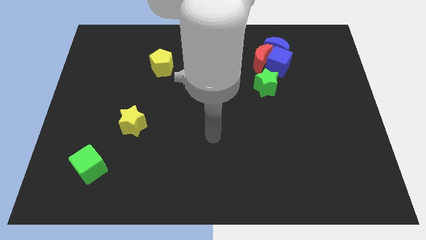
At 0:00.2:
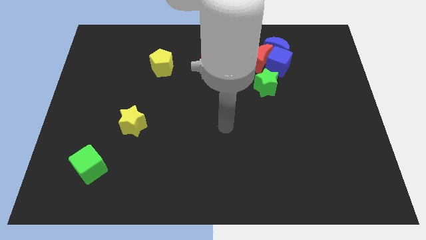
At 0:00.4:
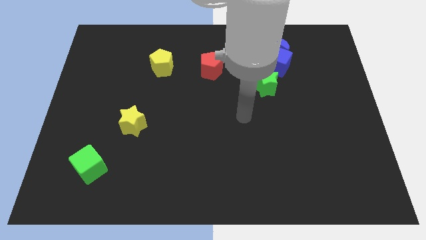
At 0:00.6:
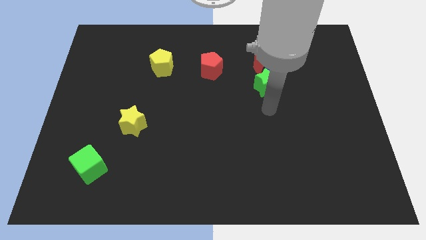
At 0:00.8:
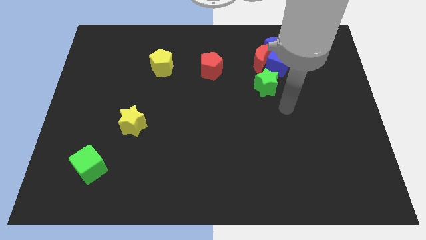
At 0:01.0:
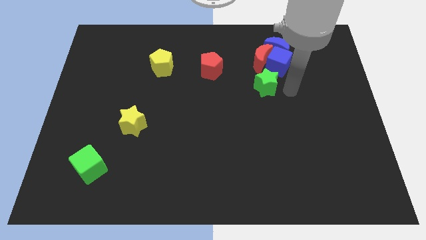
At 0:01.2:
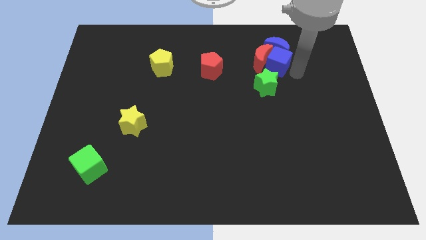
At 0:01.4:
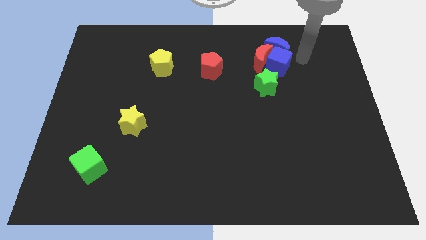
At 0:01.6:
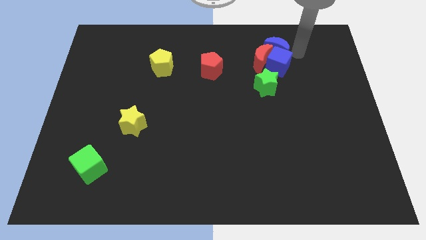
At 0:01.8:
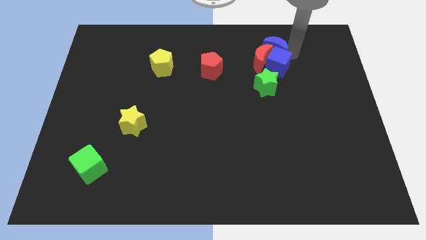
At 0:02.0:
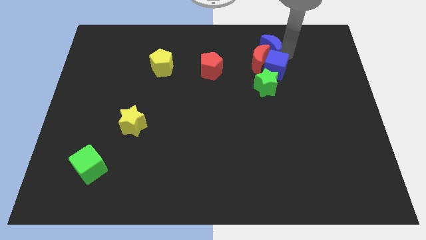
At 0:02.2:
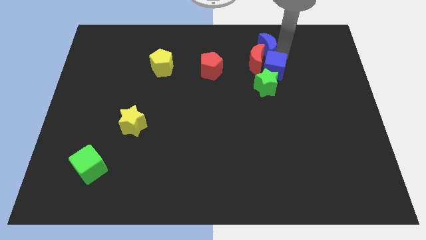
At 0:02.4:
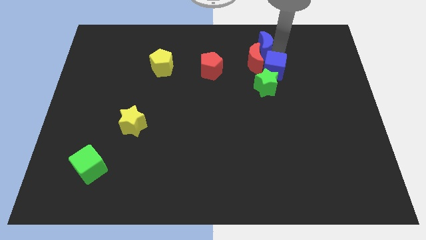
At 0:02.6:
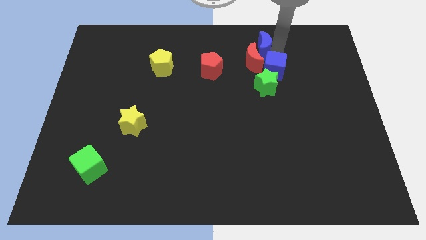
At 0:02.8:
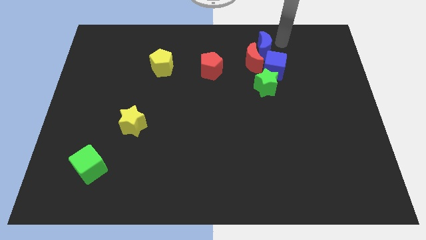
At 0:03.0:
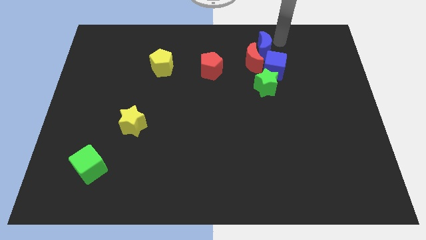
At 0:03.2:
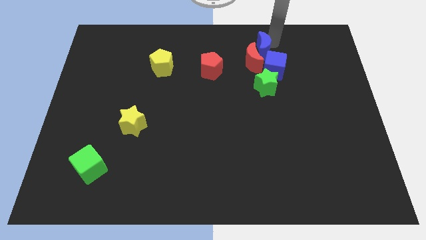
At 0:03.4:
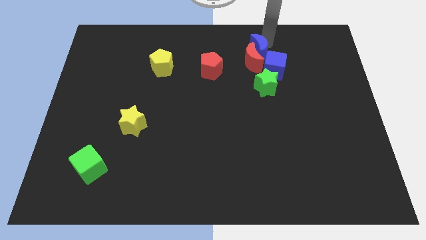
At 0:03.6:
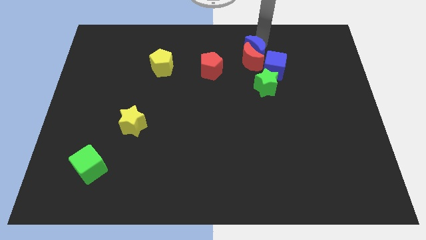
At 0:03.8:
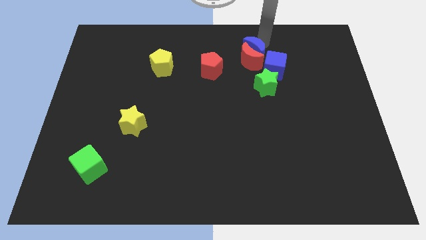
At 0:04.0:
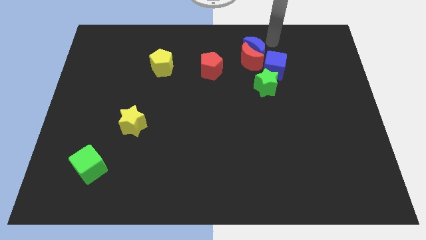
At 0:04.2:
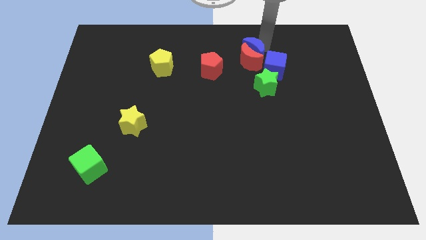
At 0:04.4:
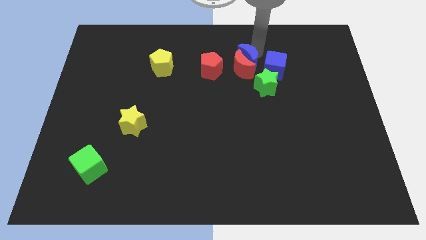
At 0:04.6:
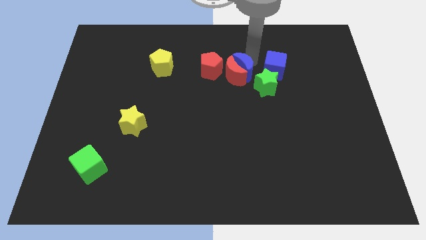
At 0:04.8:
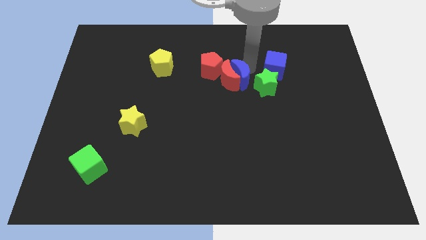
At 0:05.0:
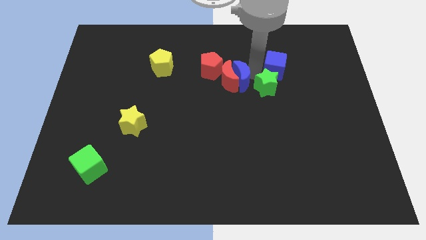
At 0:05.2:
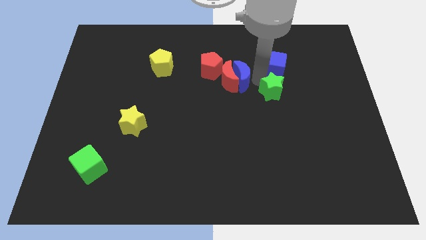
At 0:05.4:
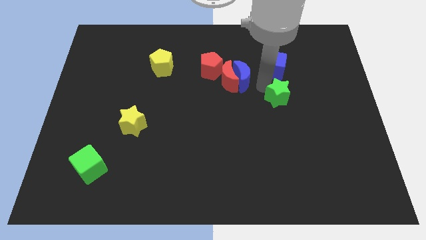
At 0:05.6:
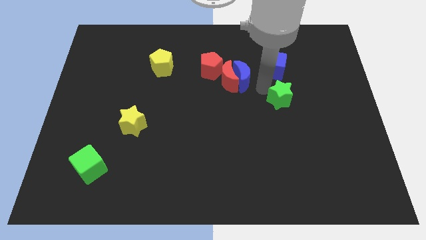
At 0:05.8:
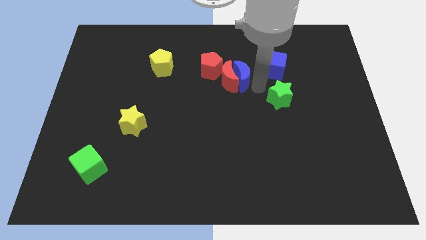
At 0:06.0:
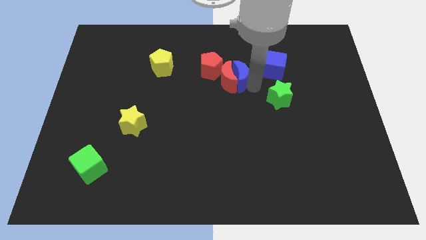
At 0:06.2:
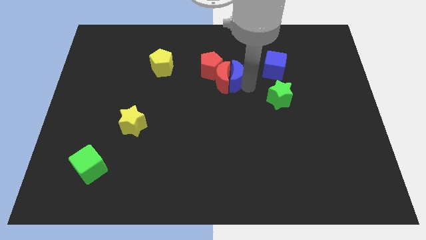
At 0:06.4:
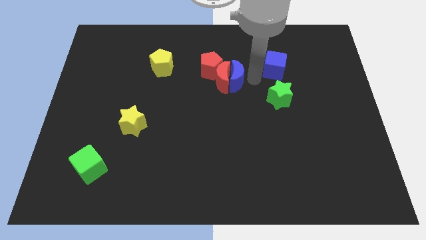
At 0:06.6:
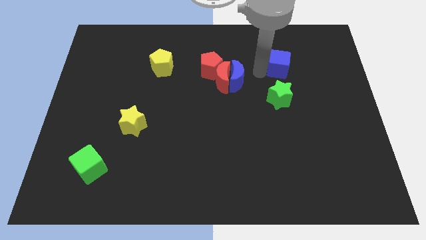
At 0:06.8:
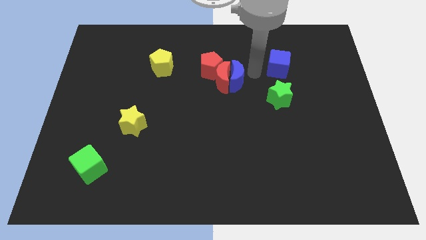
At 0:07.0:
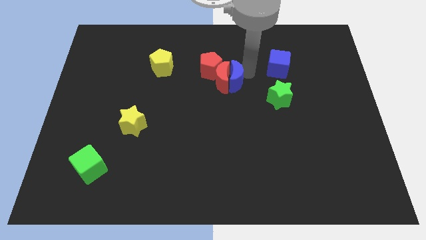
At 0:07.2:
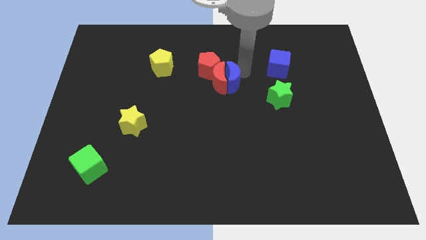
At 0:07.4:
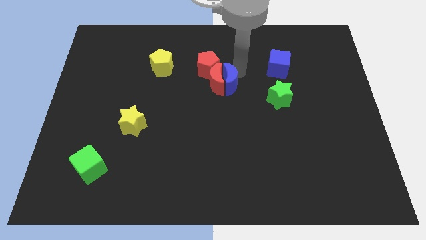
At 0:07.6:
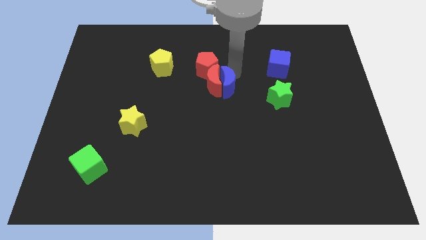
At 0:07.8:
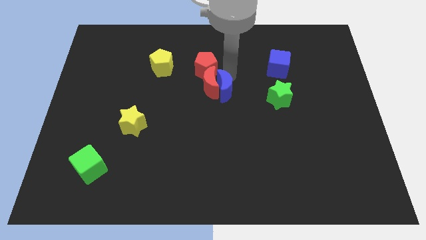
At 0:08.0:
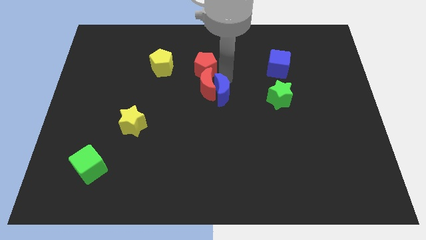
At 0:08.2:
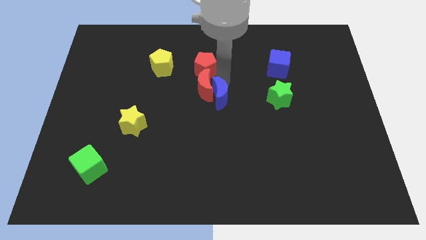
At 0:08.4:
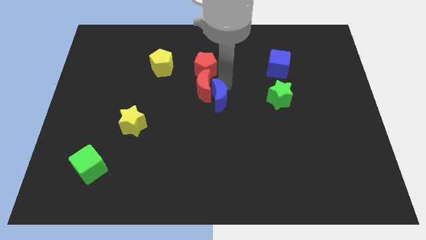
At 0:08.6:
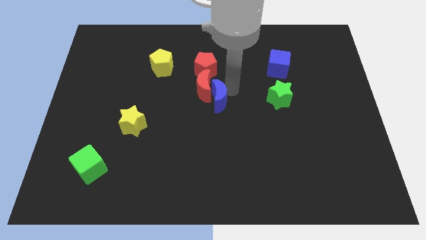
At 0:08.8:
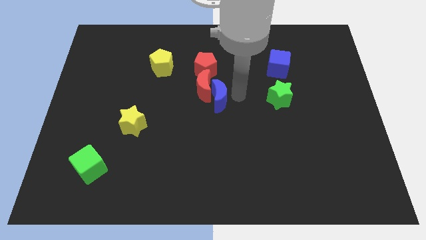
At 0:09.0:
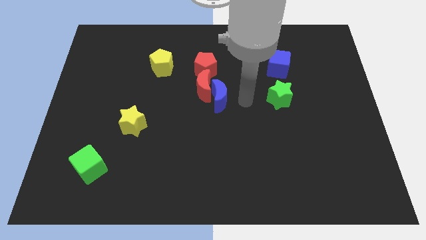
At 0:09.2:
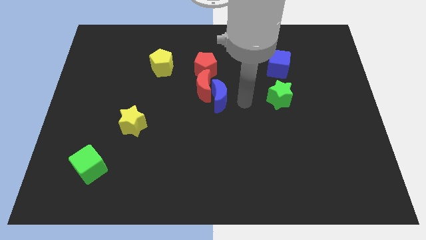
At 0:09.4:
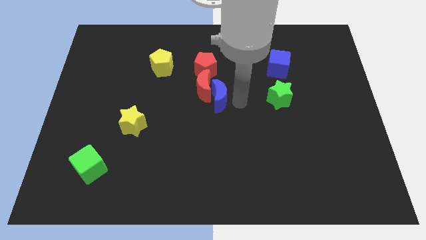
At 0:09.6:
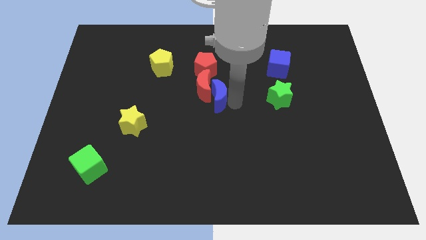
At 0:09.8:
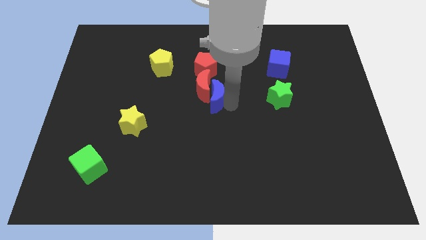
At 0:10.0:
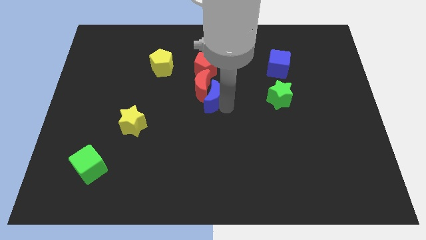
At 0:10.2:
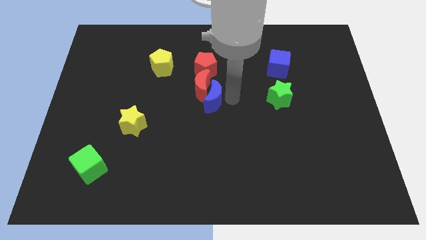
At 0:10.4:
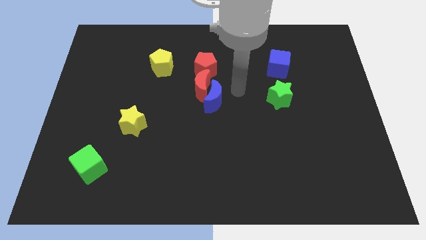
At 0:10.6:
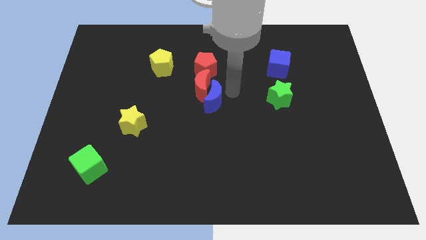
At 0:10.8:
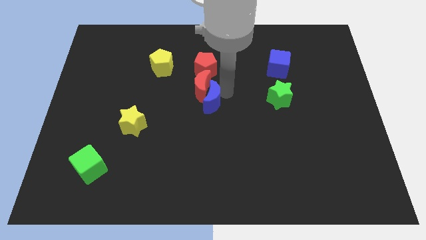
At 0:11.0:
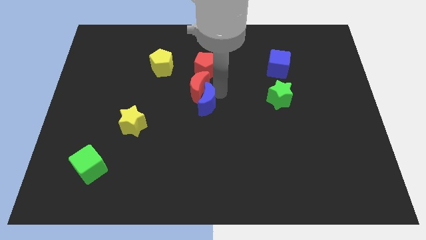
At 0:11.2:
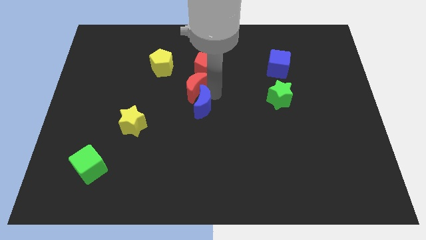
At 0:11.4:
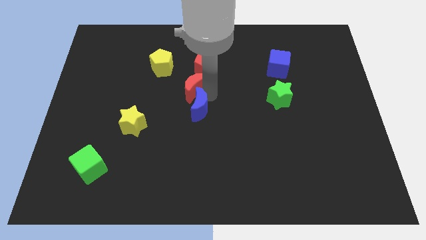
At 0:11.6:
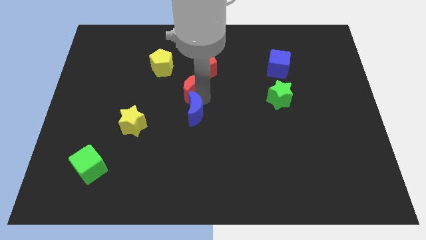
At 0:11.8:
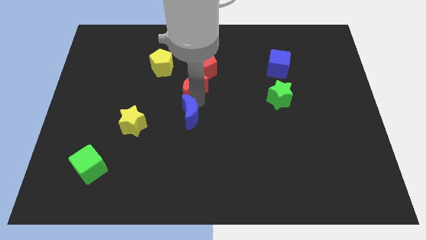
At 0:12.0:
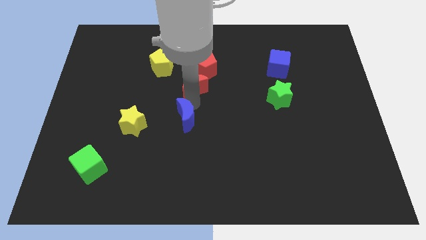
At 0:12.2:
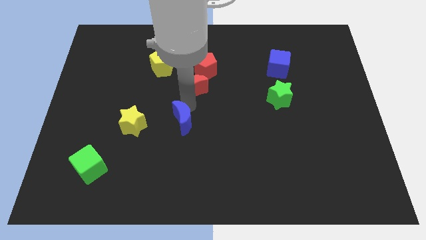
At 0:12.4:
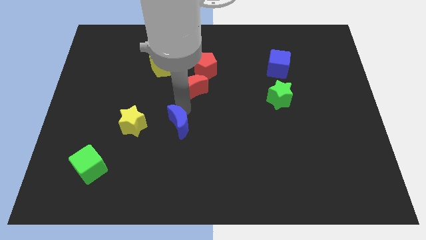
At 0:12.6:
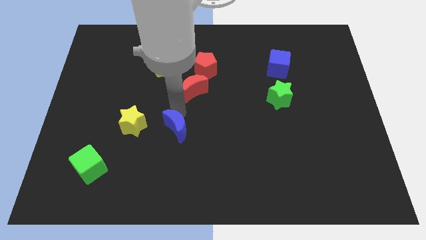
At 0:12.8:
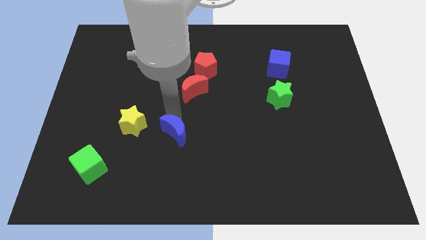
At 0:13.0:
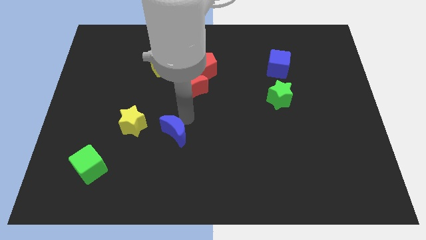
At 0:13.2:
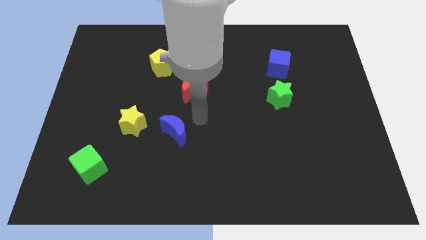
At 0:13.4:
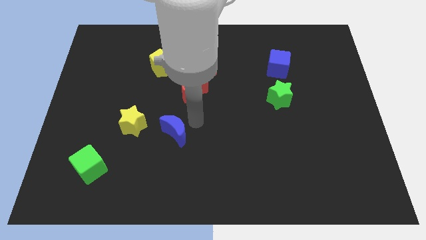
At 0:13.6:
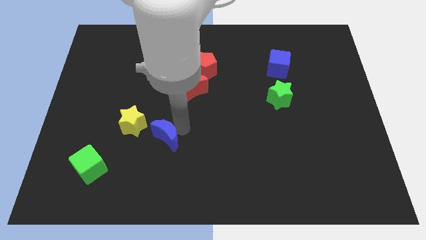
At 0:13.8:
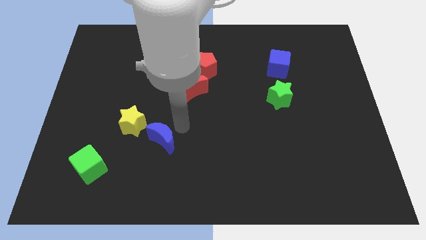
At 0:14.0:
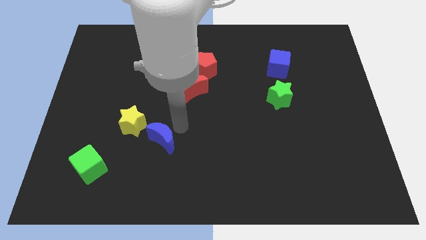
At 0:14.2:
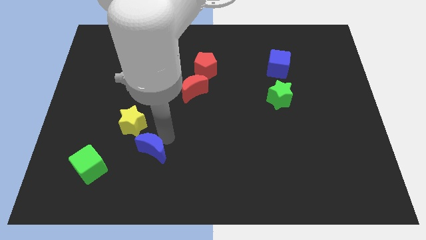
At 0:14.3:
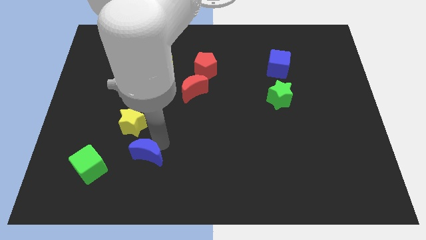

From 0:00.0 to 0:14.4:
push the blue moon to the bottom of the yellow star

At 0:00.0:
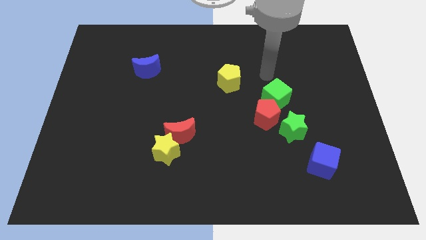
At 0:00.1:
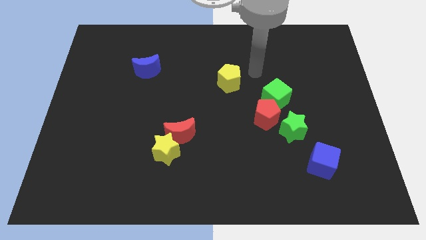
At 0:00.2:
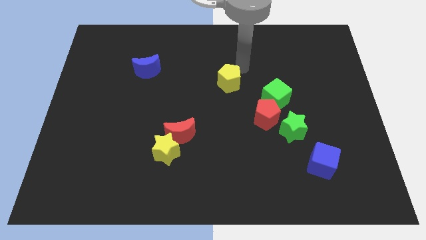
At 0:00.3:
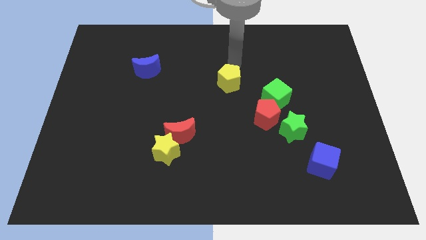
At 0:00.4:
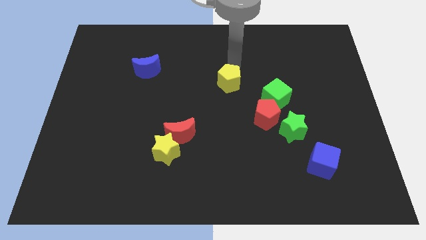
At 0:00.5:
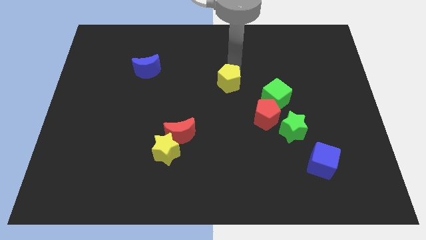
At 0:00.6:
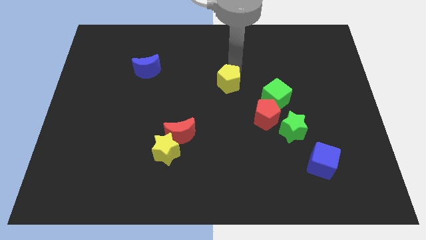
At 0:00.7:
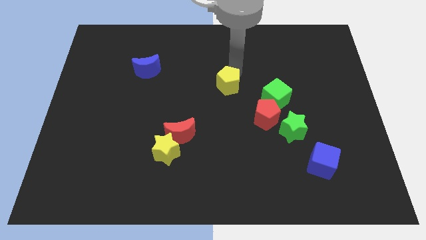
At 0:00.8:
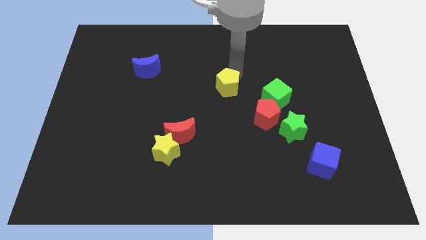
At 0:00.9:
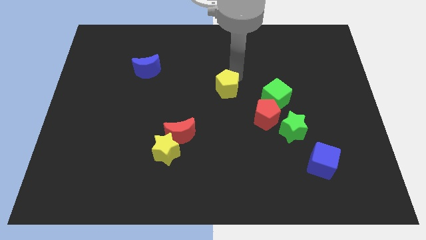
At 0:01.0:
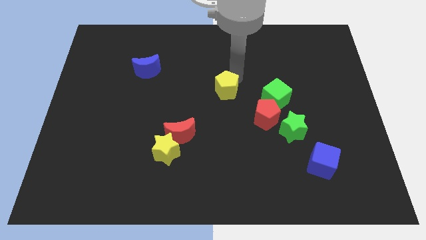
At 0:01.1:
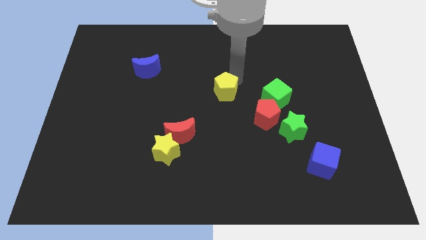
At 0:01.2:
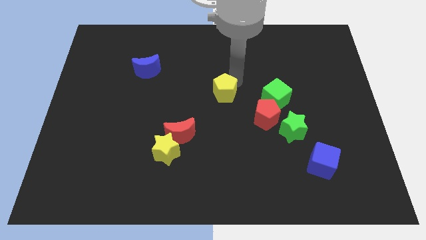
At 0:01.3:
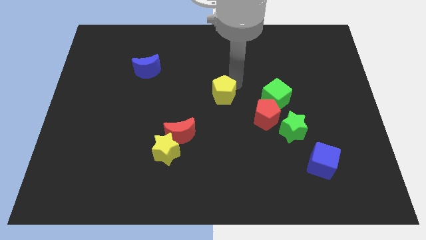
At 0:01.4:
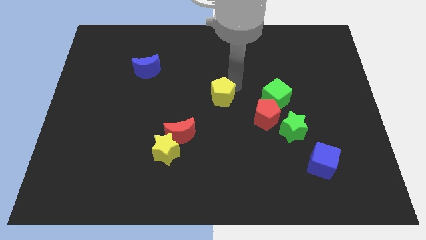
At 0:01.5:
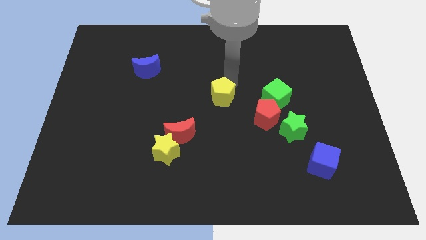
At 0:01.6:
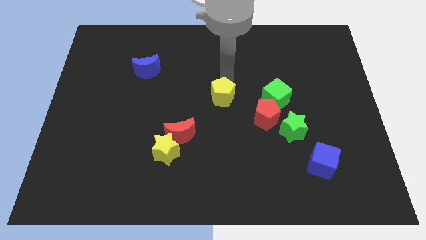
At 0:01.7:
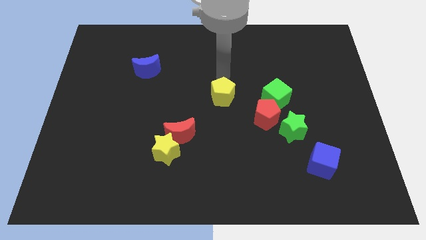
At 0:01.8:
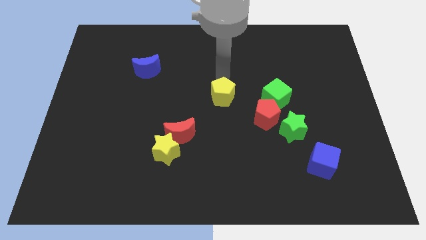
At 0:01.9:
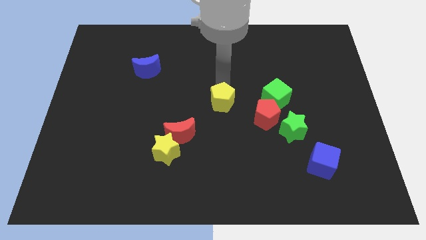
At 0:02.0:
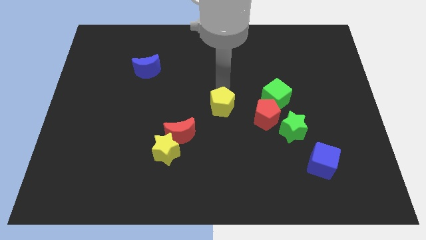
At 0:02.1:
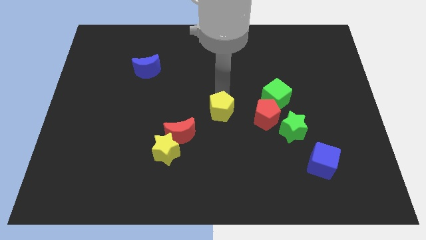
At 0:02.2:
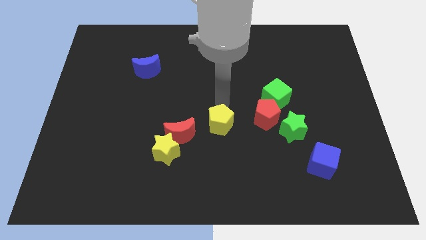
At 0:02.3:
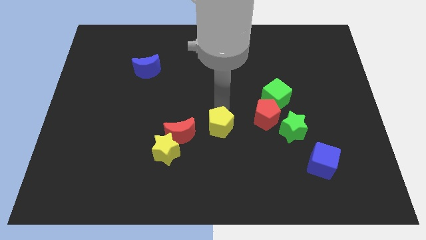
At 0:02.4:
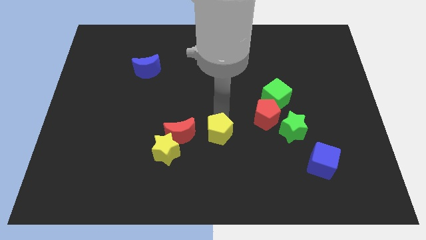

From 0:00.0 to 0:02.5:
push the yellow pentagon just right of the yellow star
